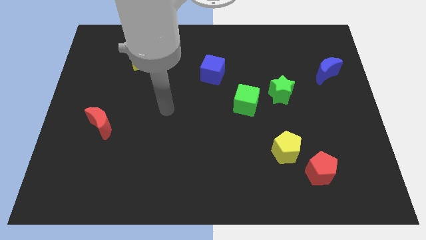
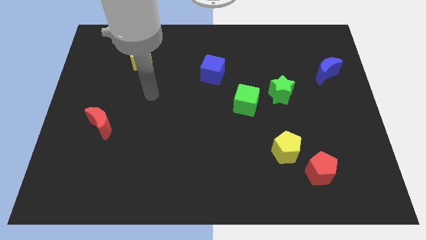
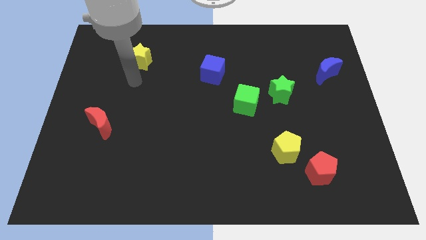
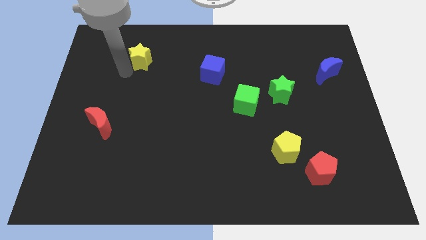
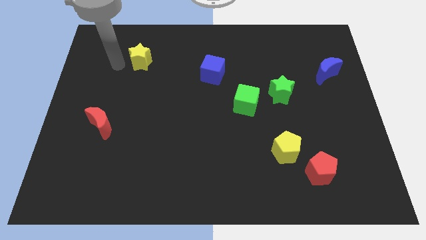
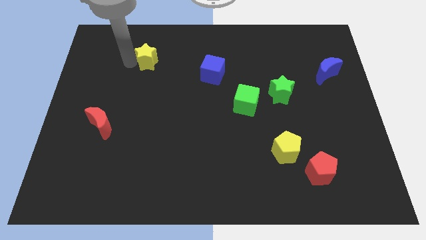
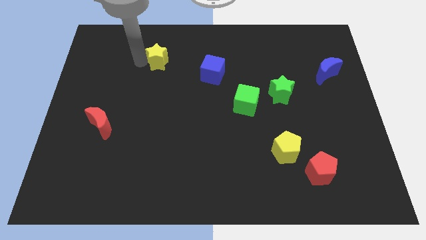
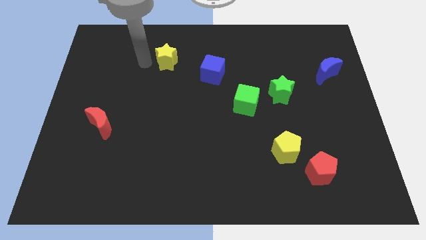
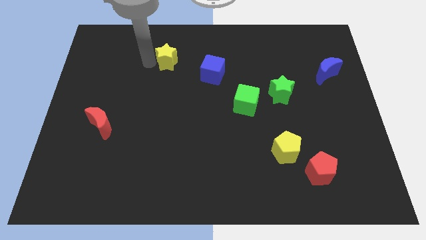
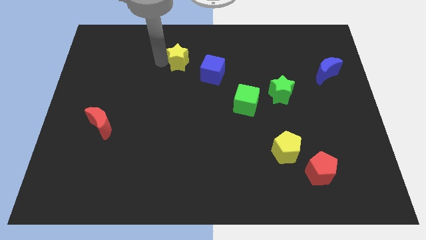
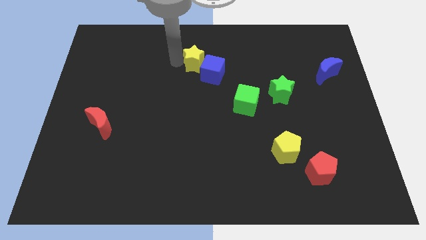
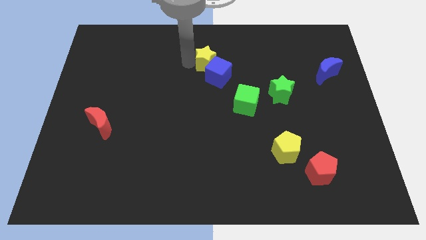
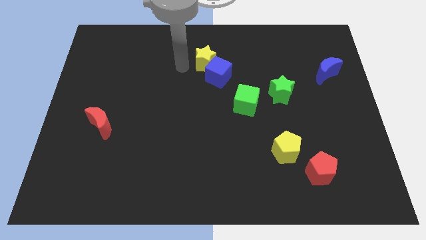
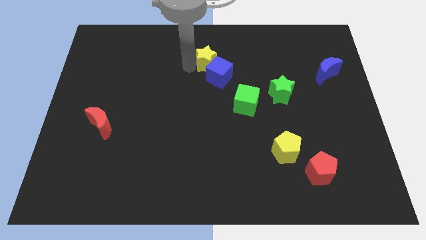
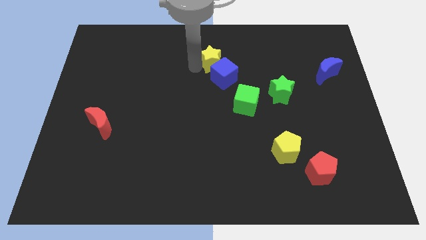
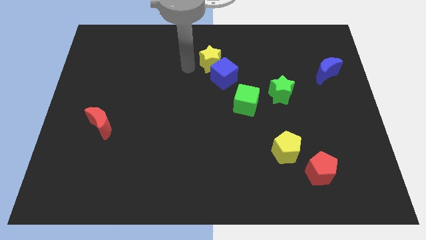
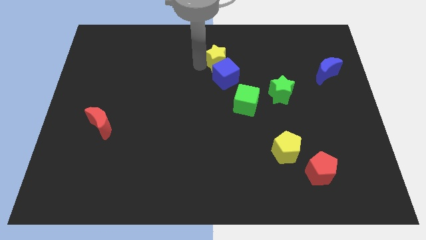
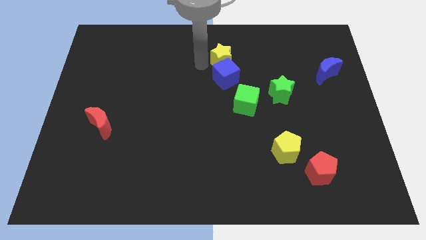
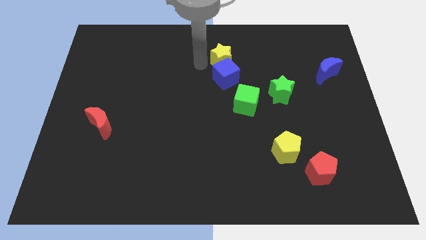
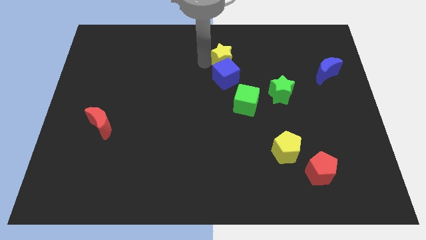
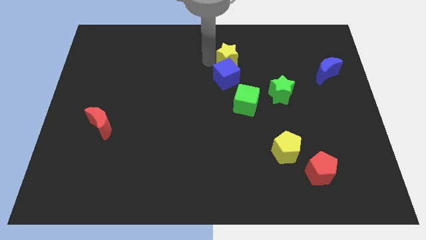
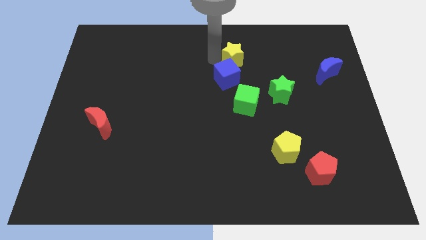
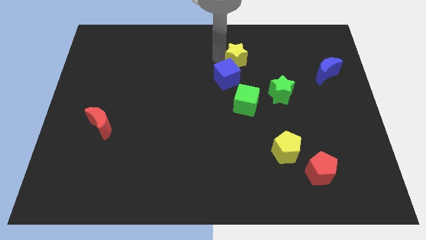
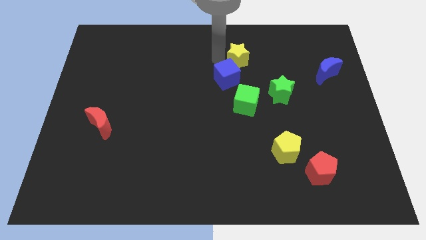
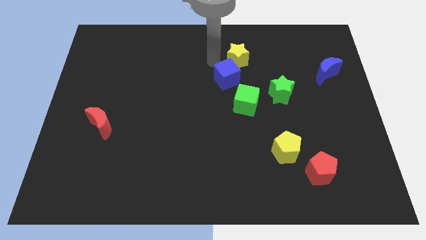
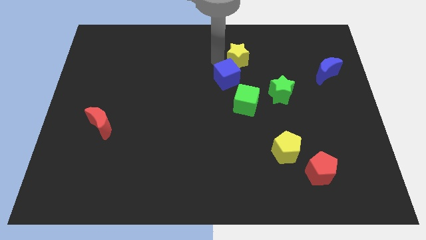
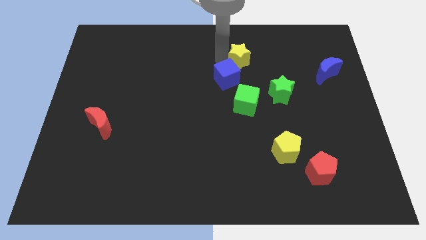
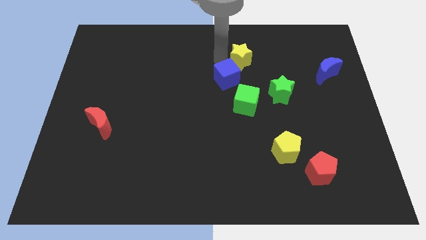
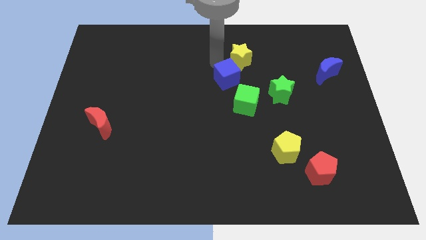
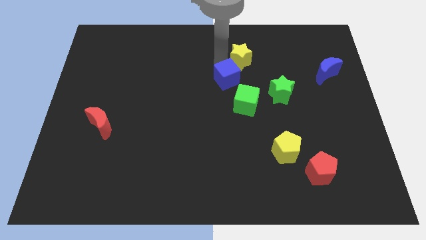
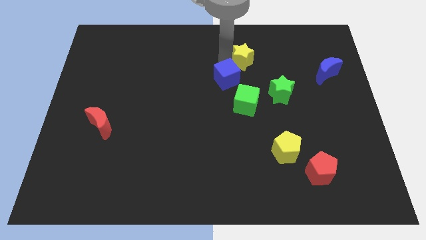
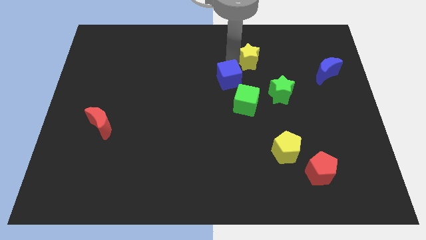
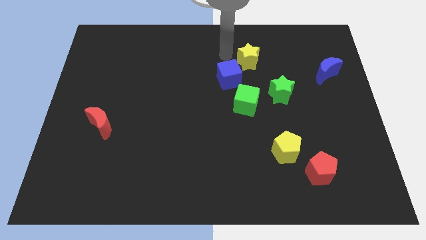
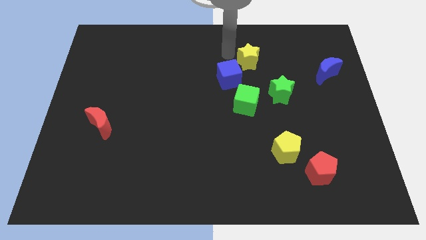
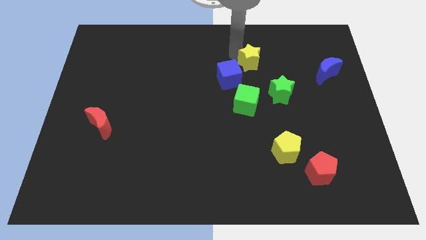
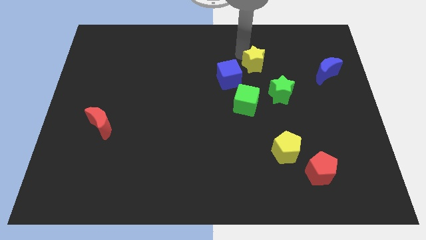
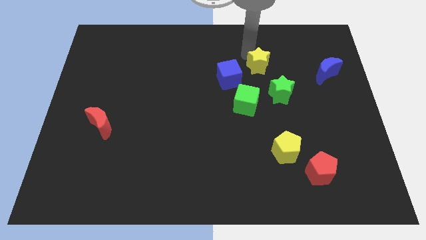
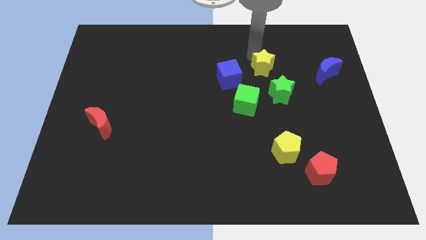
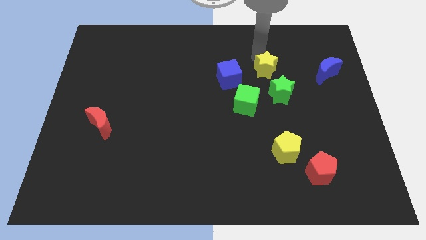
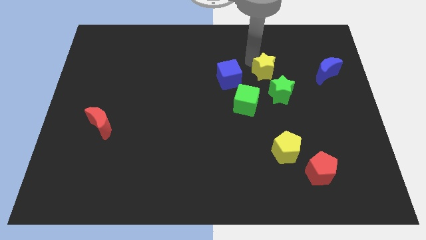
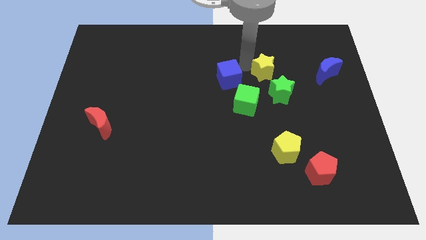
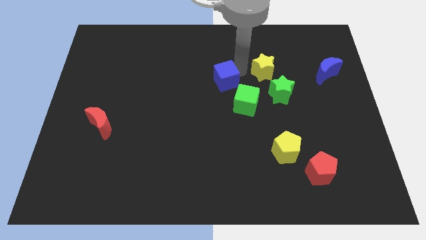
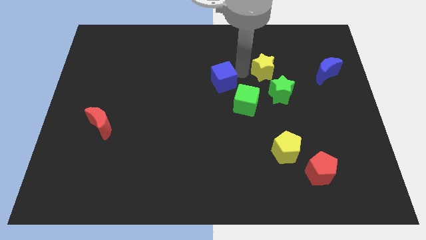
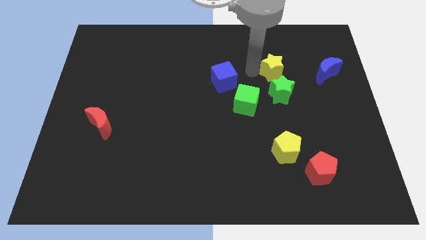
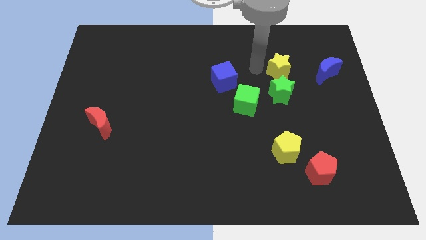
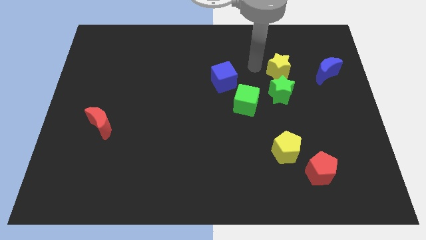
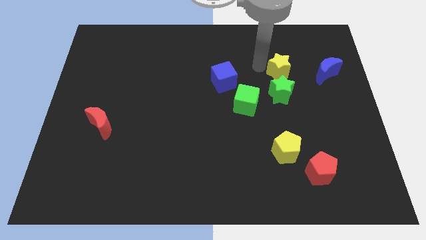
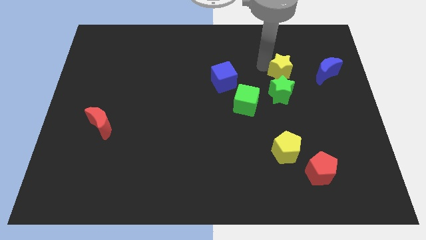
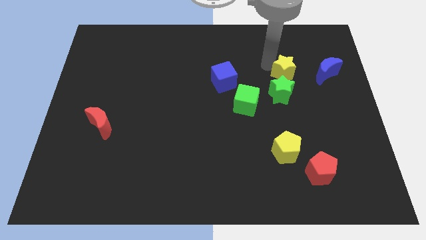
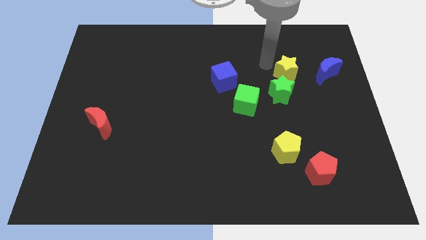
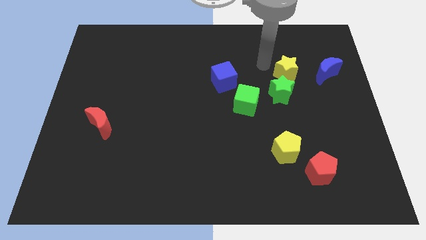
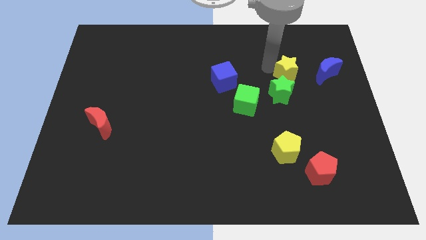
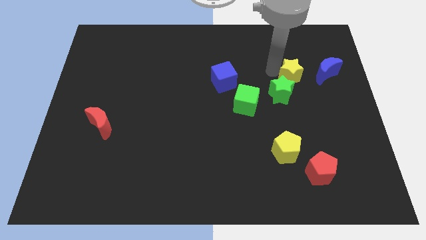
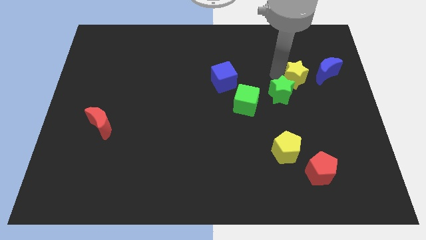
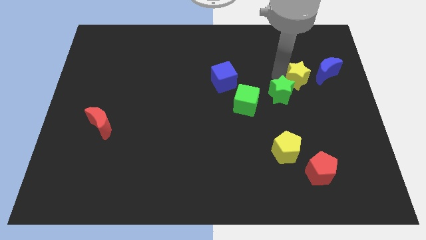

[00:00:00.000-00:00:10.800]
slide the yellow star just right of the green star

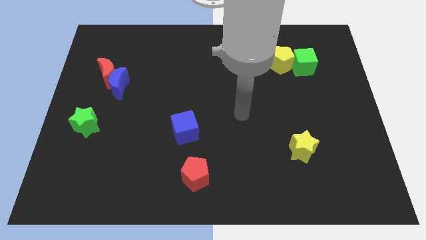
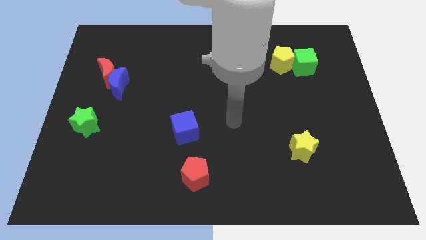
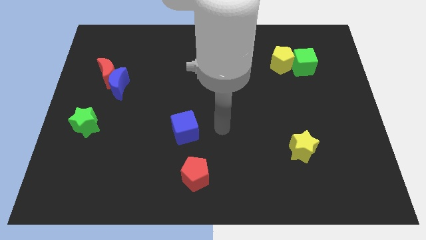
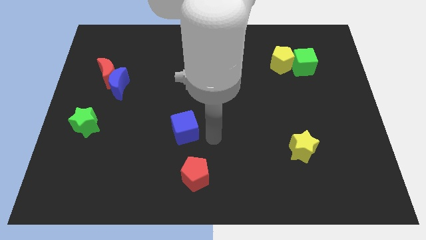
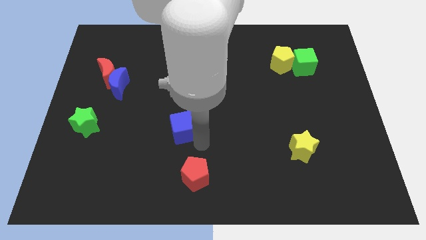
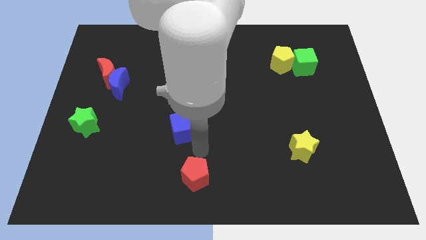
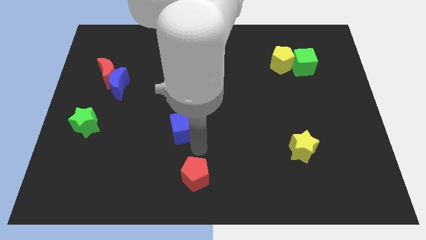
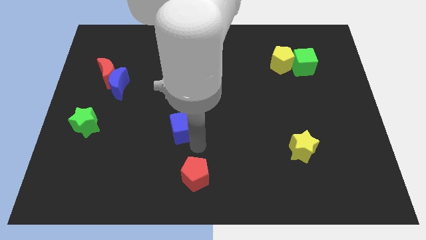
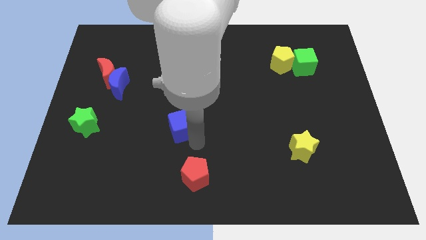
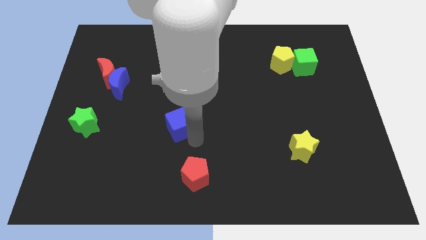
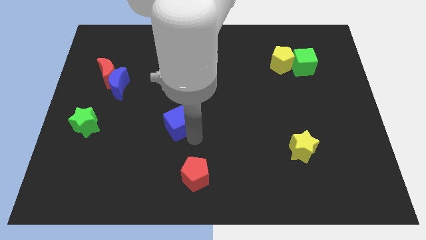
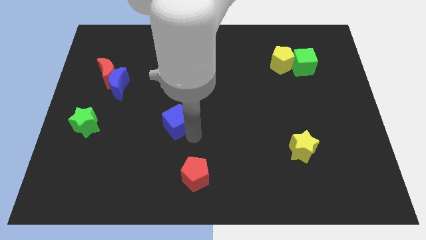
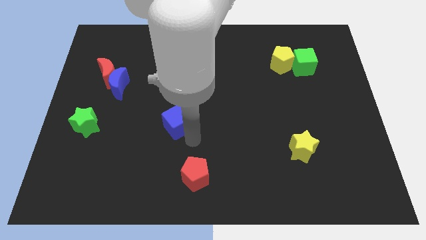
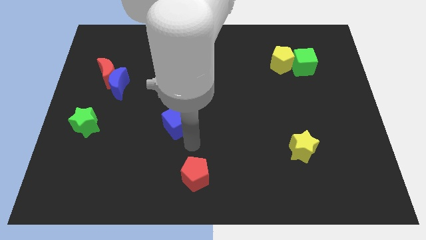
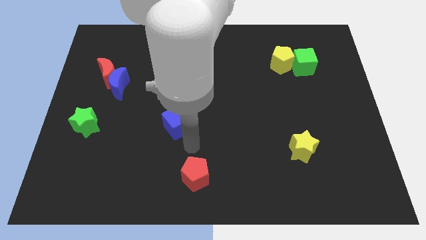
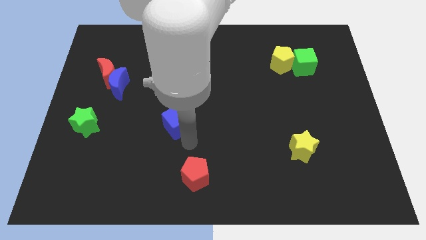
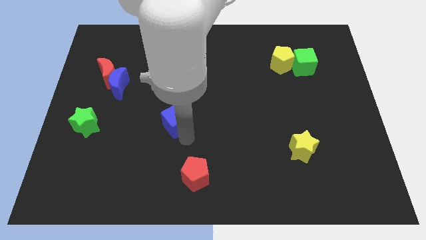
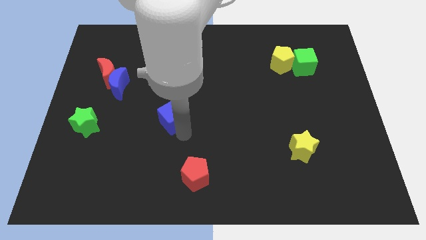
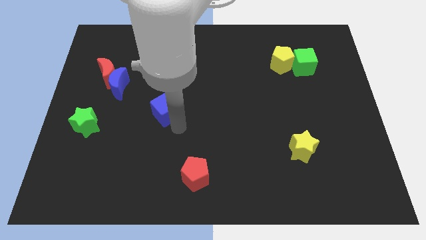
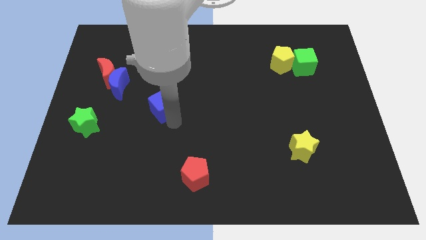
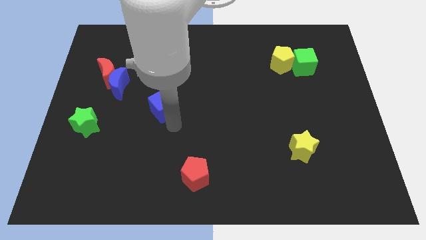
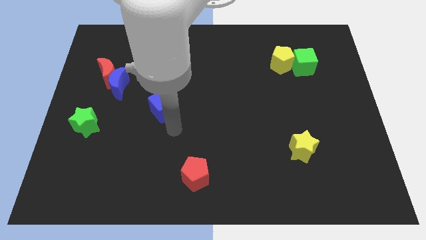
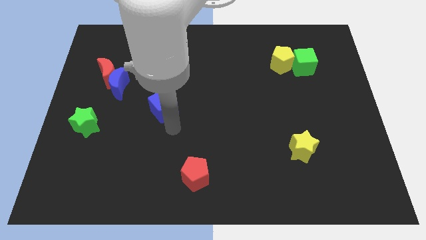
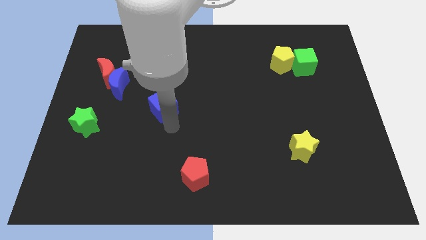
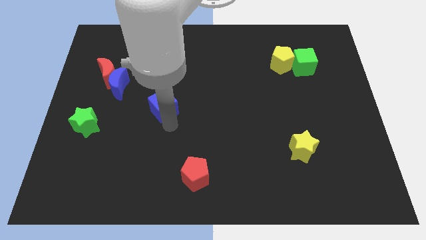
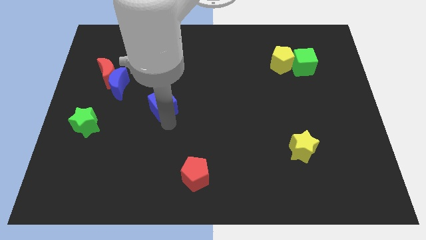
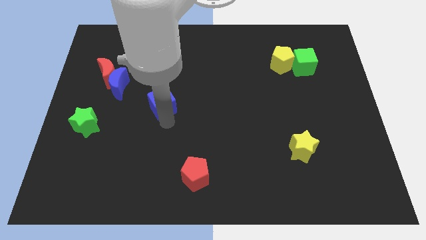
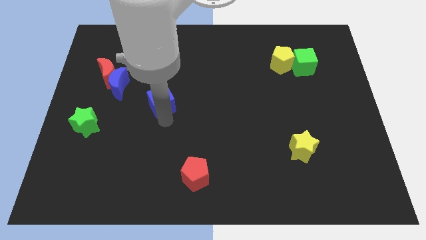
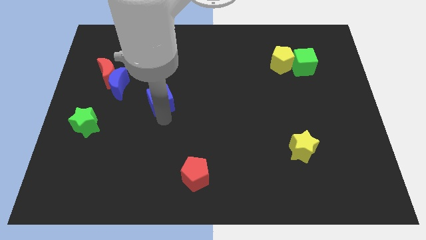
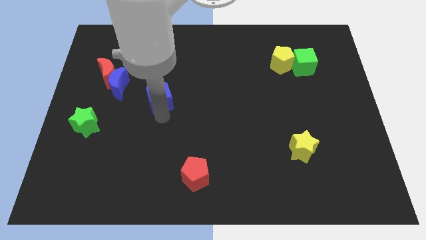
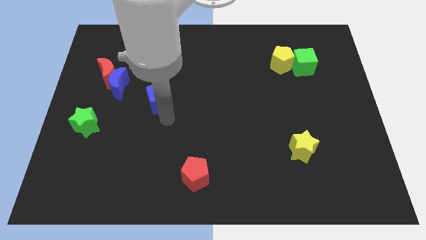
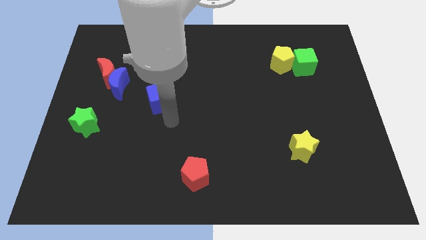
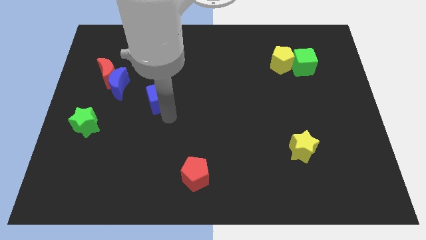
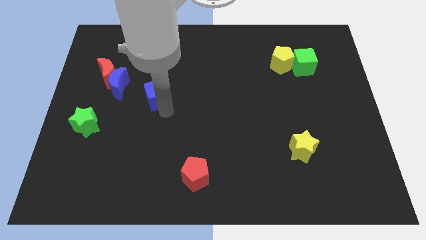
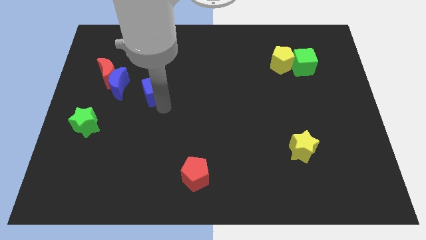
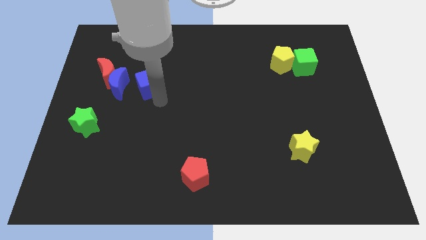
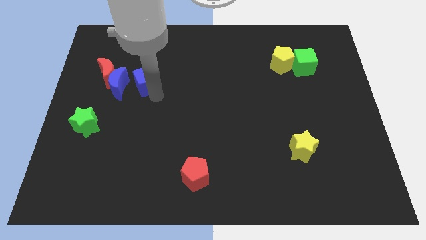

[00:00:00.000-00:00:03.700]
slide the blue cube to the top right of the blue moon
